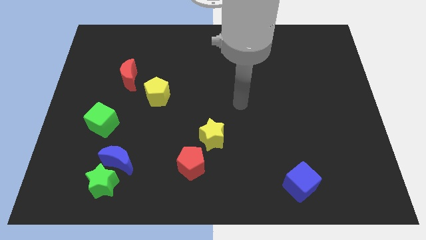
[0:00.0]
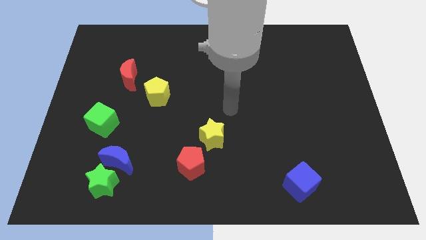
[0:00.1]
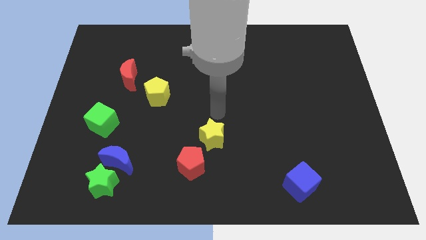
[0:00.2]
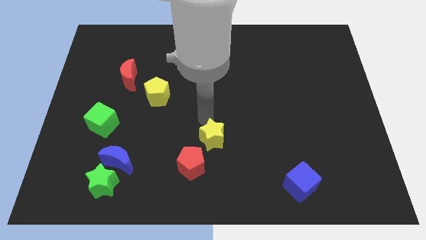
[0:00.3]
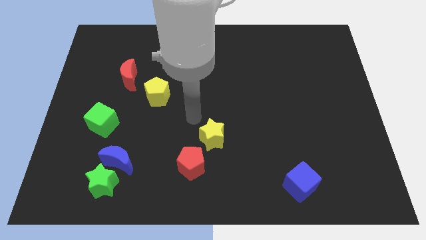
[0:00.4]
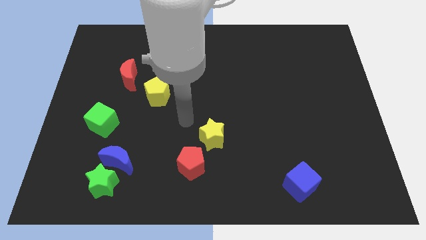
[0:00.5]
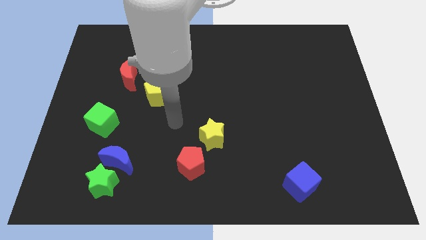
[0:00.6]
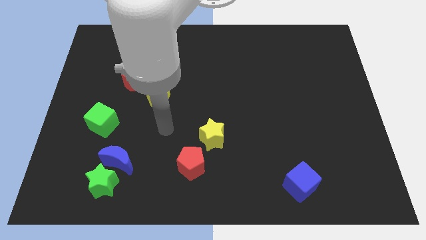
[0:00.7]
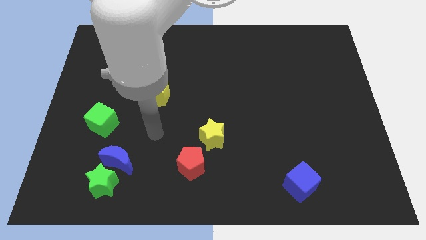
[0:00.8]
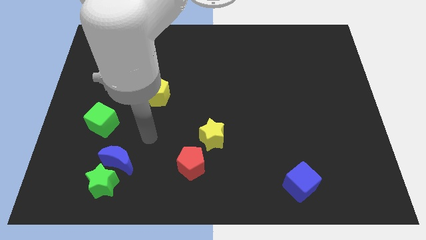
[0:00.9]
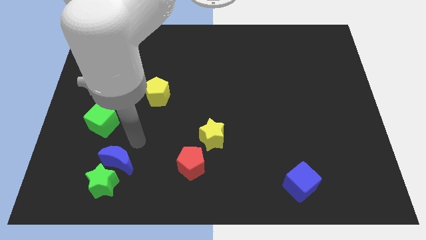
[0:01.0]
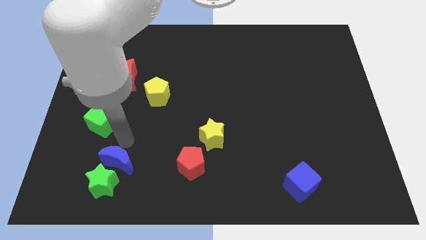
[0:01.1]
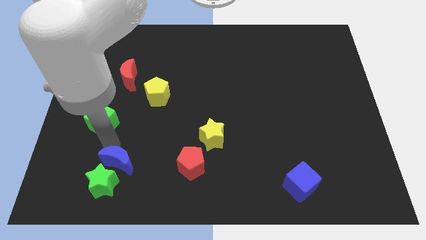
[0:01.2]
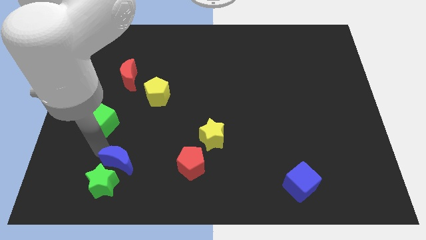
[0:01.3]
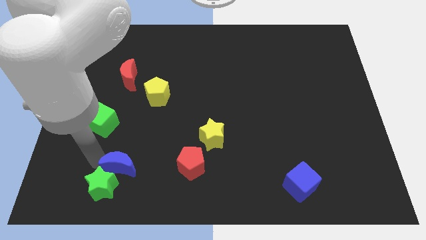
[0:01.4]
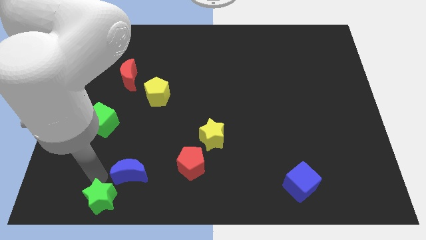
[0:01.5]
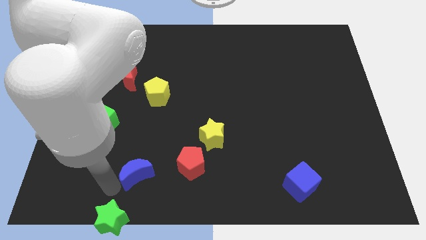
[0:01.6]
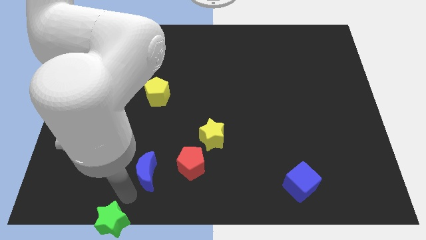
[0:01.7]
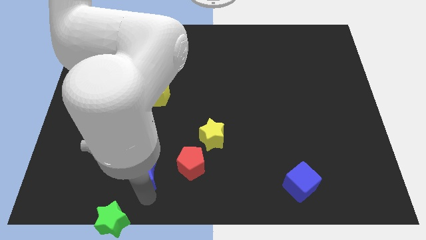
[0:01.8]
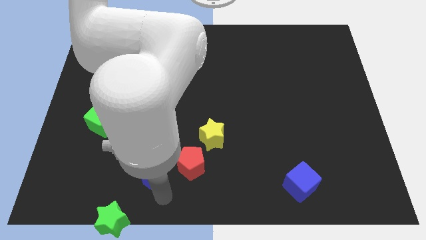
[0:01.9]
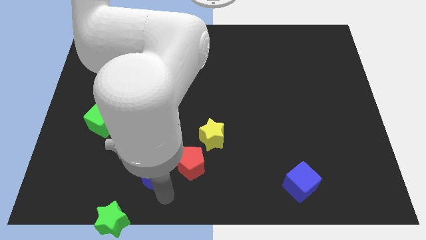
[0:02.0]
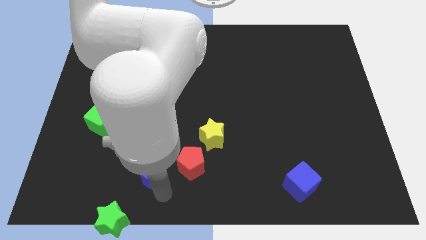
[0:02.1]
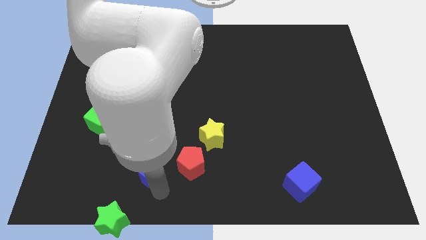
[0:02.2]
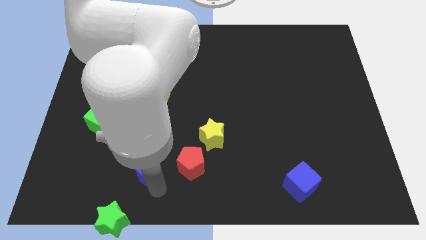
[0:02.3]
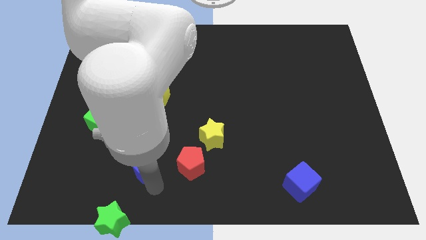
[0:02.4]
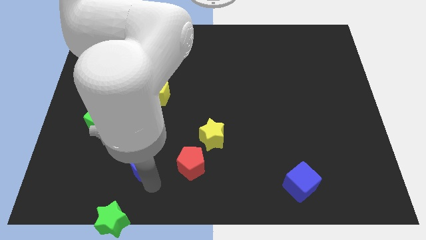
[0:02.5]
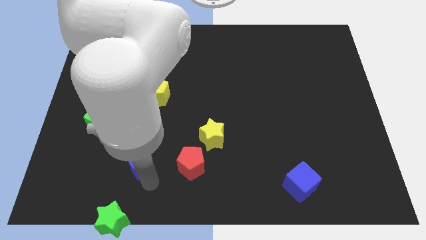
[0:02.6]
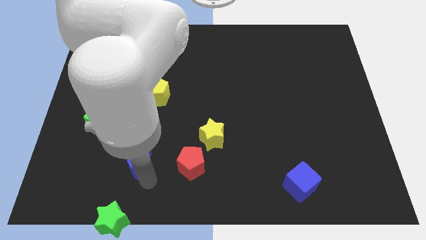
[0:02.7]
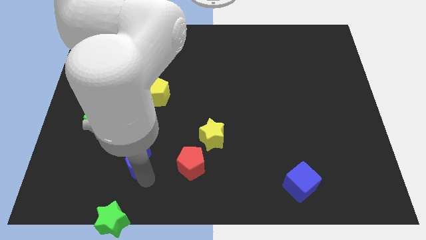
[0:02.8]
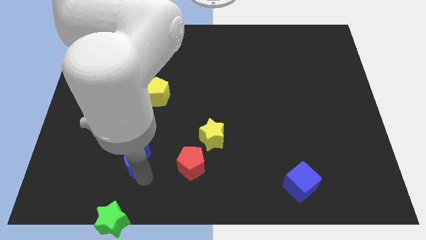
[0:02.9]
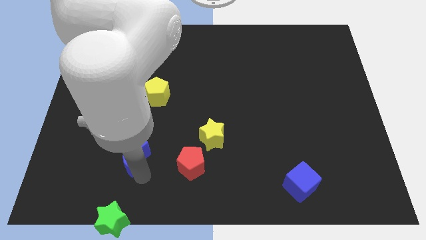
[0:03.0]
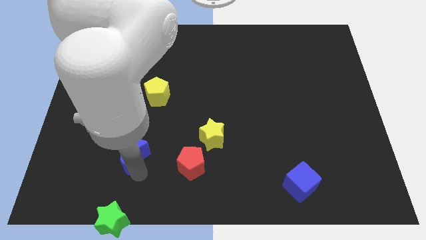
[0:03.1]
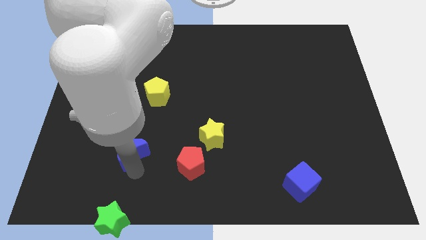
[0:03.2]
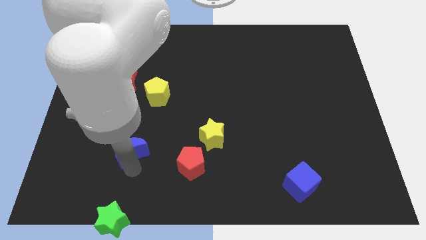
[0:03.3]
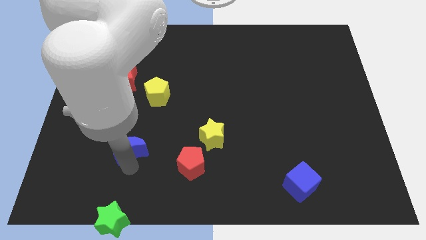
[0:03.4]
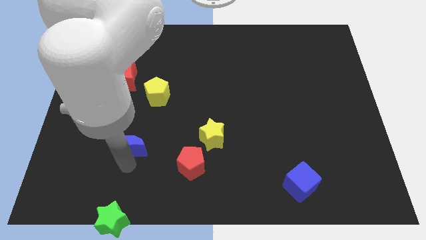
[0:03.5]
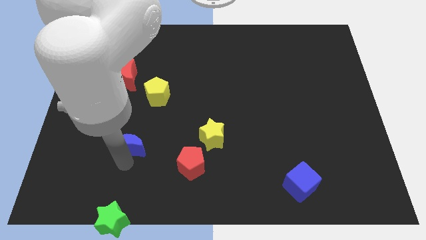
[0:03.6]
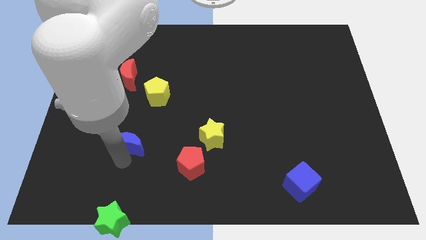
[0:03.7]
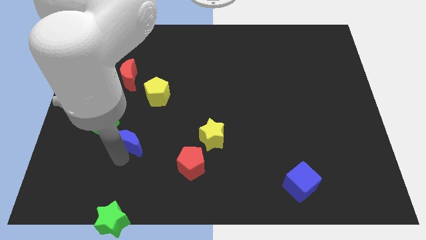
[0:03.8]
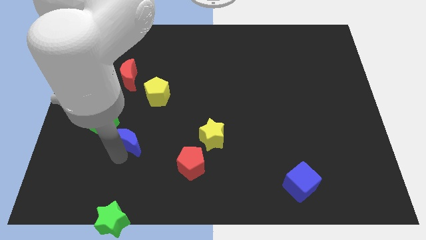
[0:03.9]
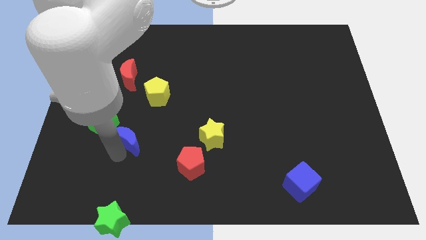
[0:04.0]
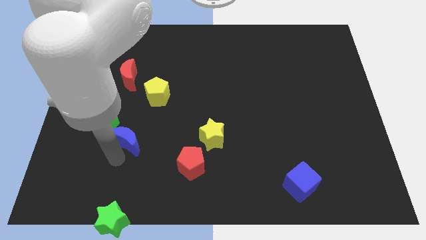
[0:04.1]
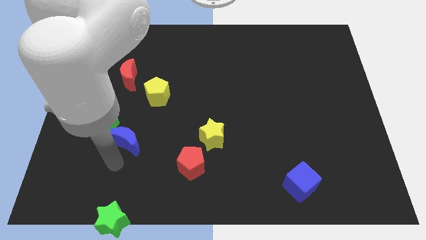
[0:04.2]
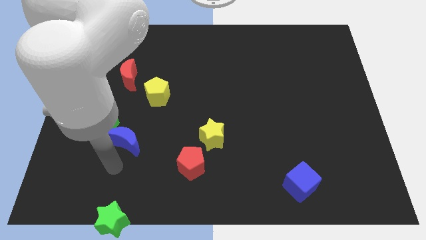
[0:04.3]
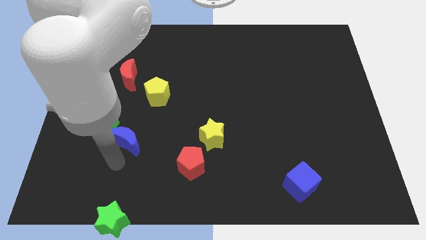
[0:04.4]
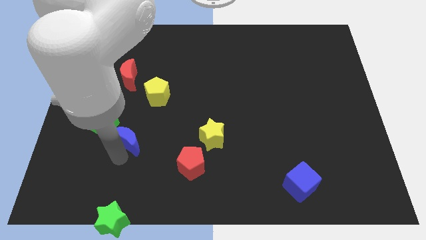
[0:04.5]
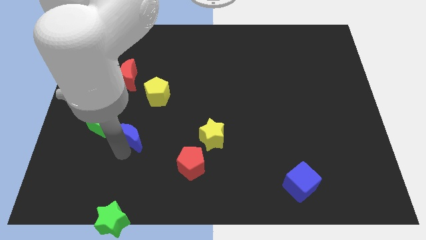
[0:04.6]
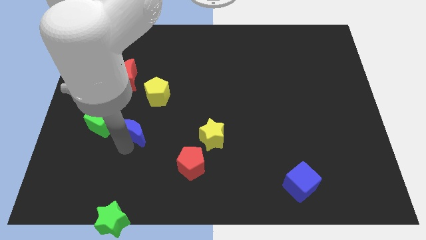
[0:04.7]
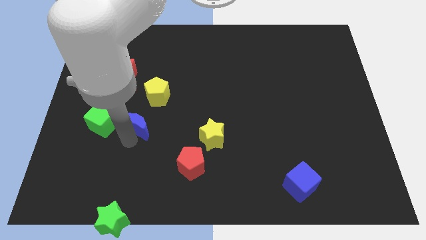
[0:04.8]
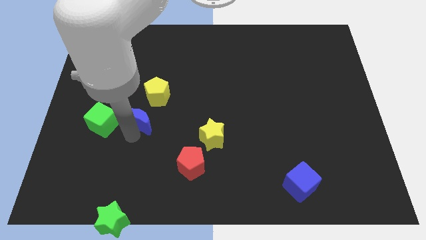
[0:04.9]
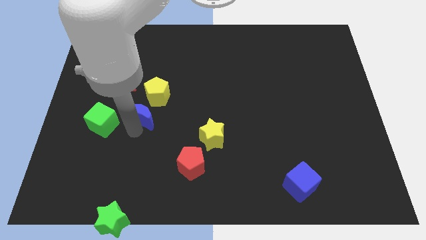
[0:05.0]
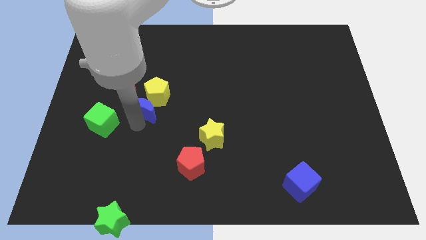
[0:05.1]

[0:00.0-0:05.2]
put the blue moon to the yellow pentagon

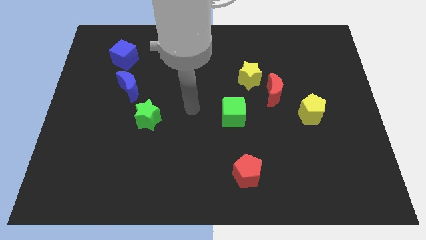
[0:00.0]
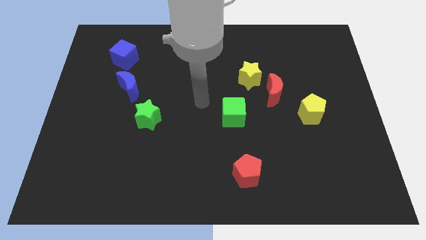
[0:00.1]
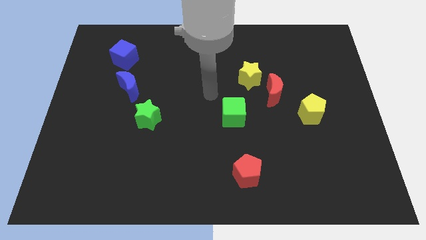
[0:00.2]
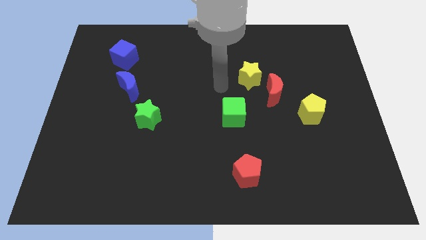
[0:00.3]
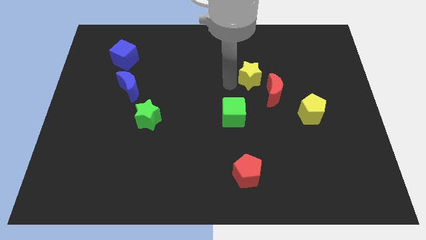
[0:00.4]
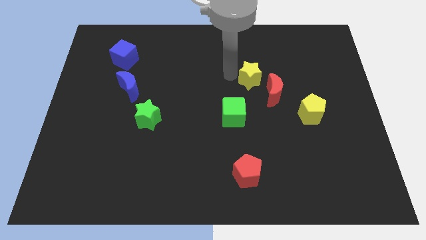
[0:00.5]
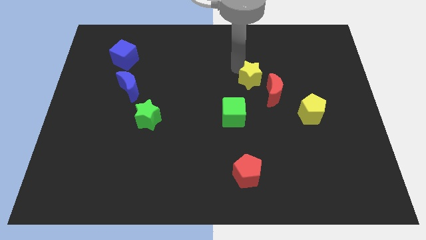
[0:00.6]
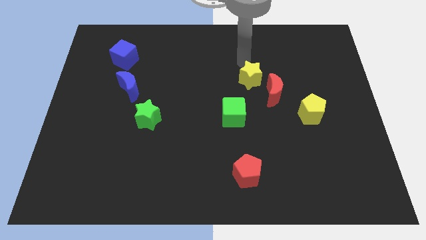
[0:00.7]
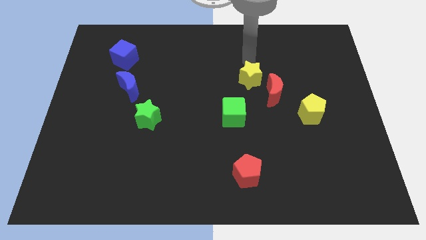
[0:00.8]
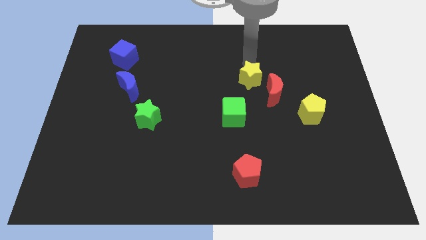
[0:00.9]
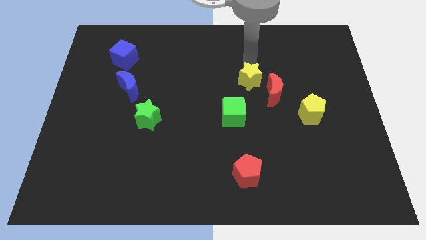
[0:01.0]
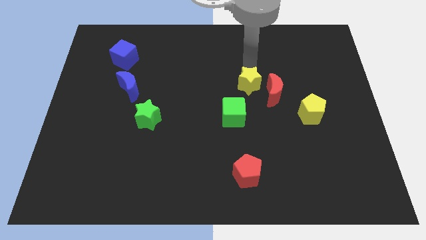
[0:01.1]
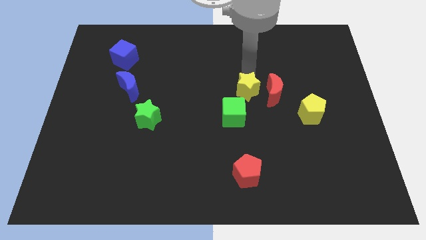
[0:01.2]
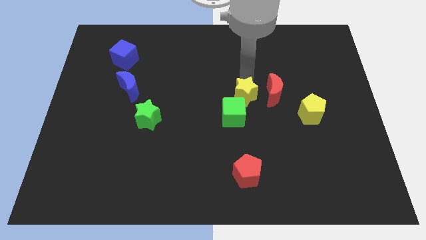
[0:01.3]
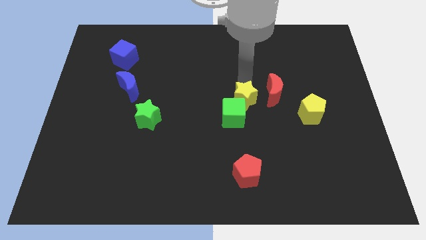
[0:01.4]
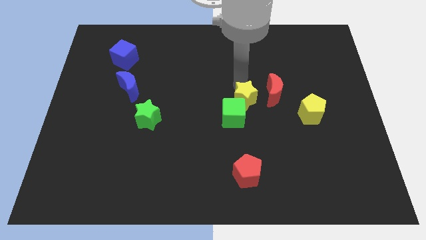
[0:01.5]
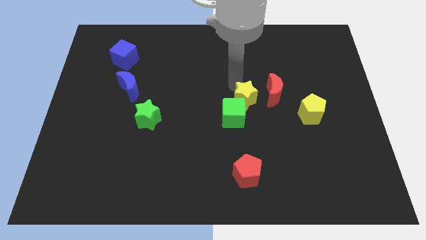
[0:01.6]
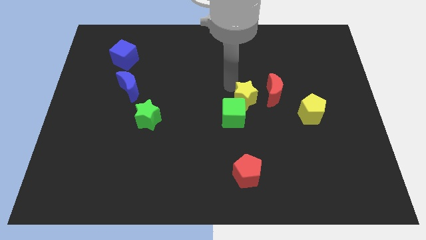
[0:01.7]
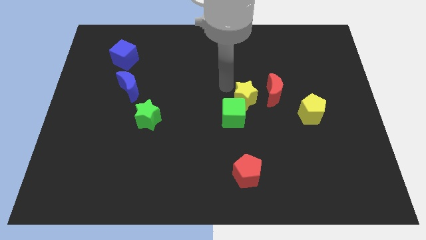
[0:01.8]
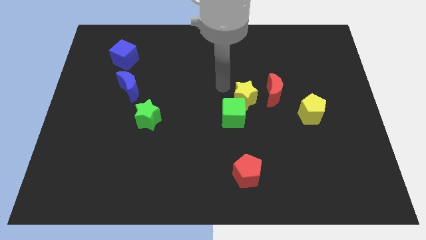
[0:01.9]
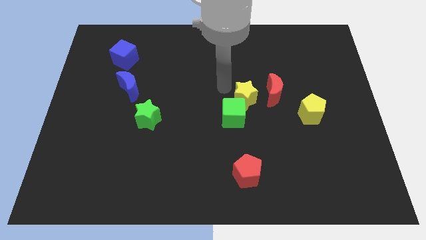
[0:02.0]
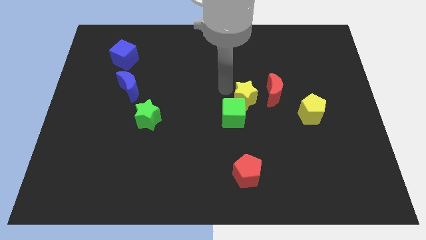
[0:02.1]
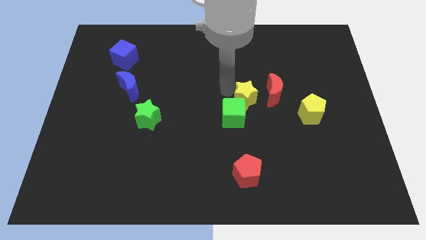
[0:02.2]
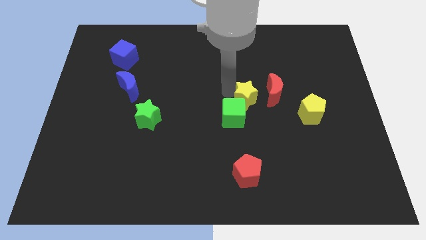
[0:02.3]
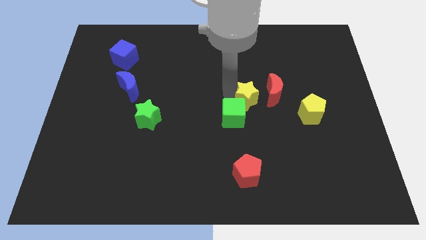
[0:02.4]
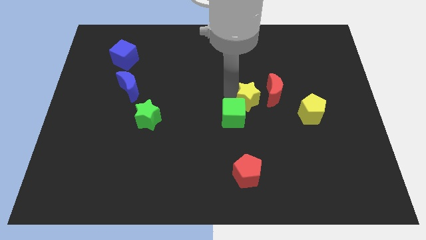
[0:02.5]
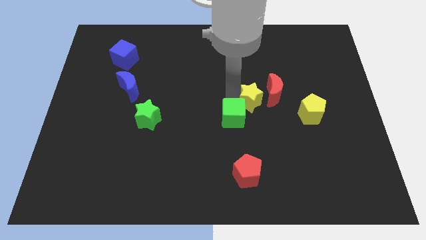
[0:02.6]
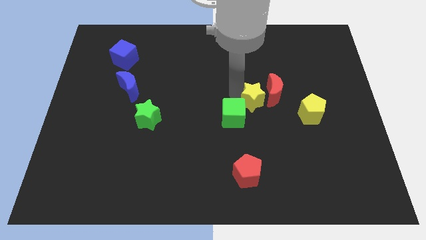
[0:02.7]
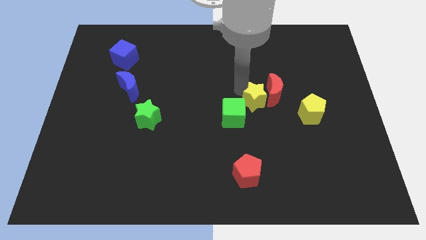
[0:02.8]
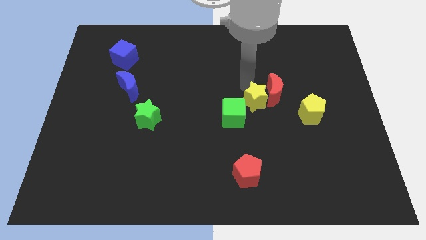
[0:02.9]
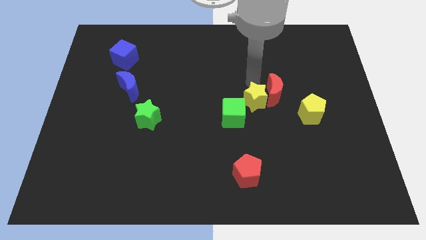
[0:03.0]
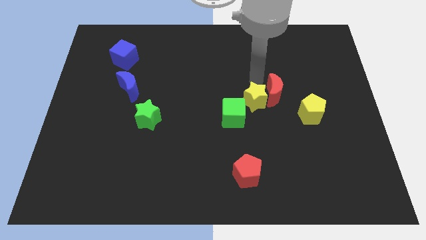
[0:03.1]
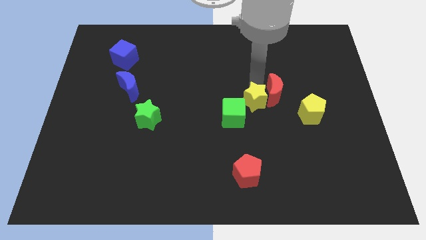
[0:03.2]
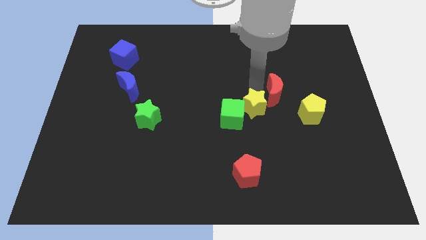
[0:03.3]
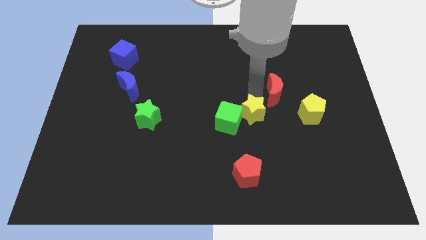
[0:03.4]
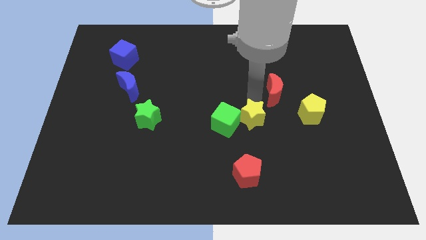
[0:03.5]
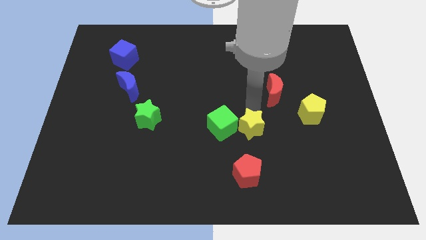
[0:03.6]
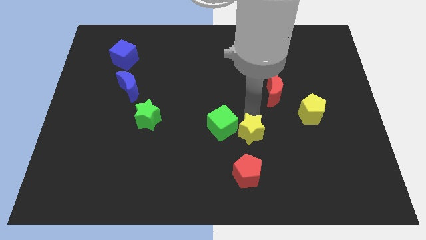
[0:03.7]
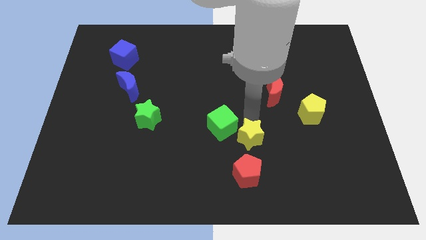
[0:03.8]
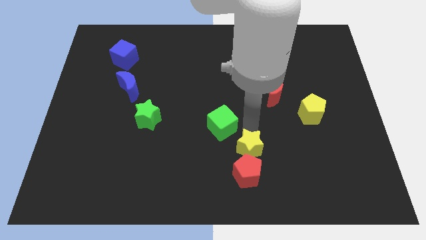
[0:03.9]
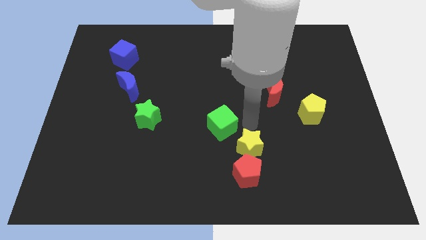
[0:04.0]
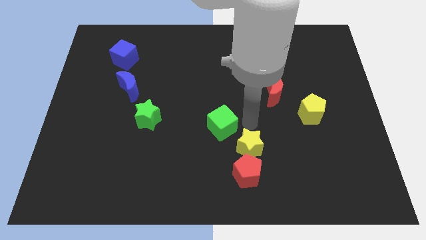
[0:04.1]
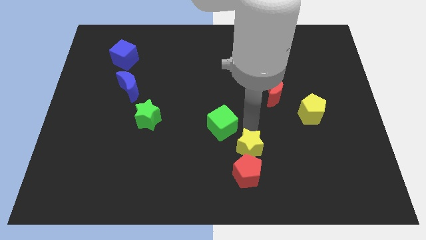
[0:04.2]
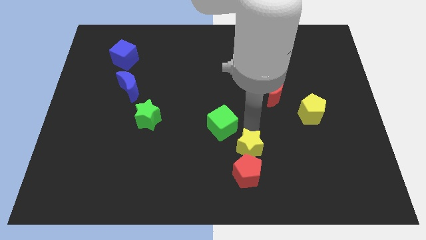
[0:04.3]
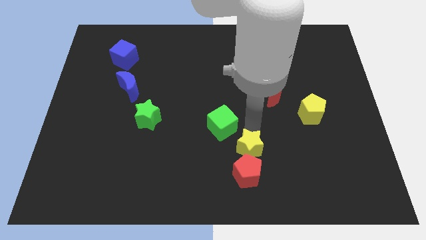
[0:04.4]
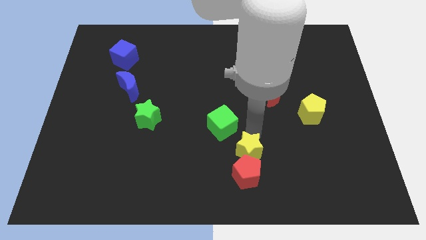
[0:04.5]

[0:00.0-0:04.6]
push the yellow star close to the red pentagon
